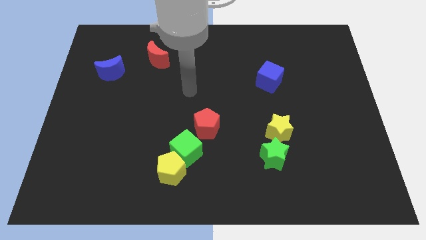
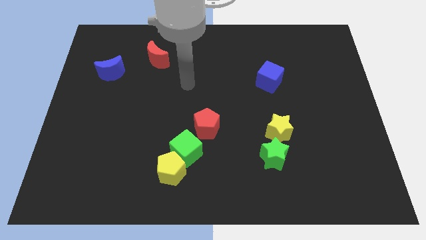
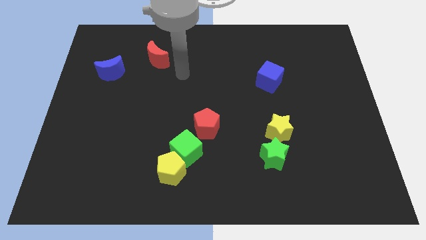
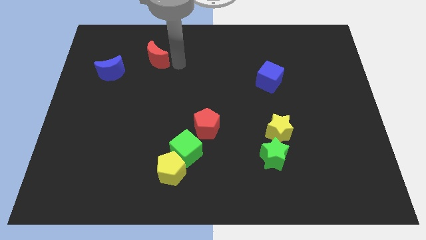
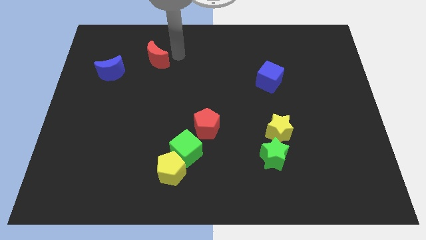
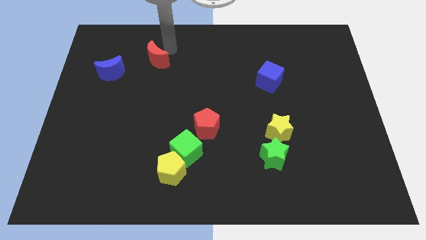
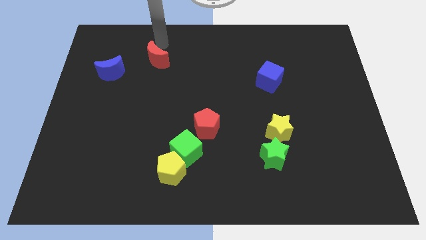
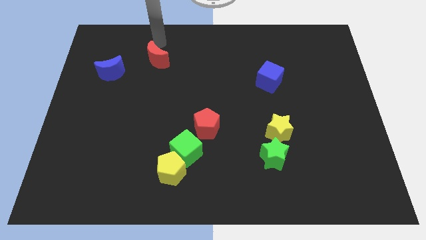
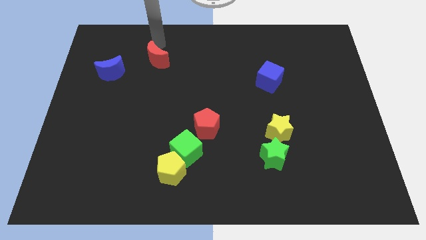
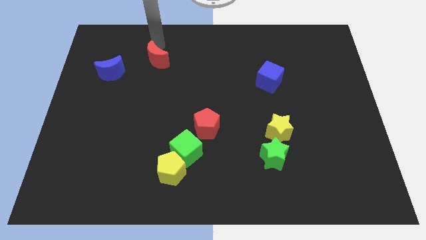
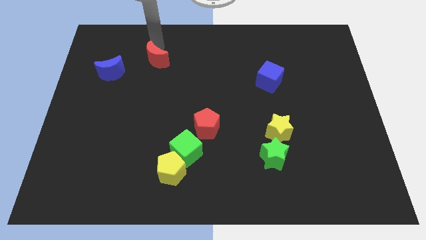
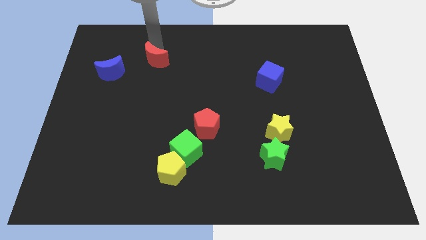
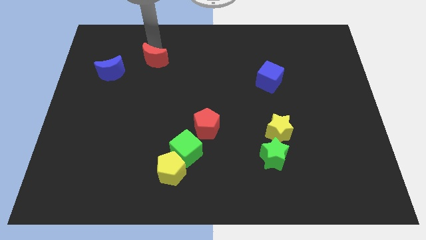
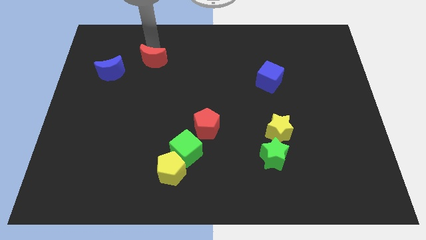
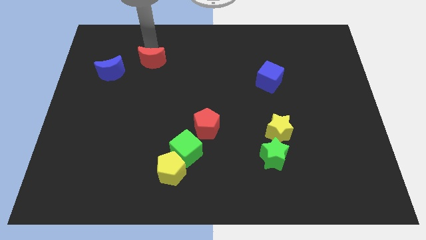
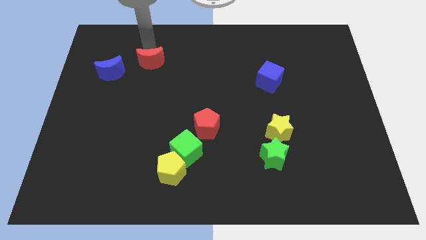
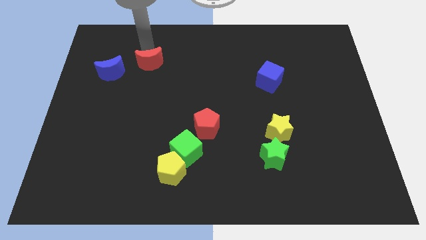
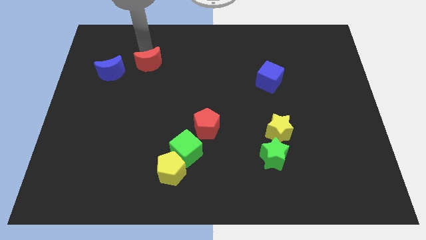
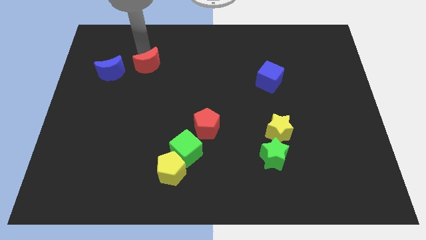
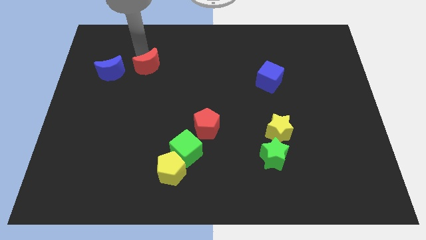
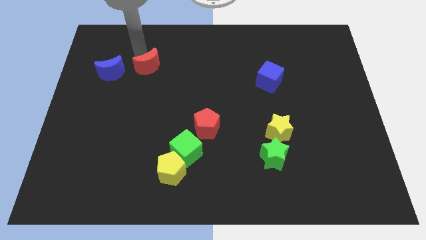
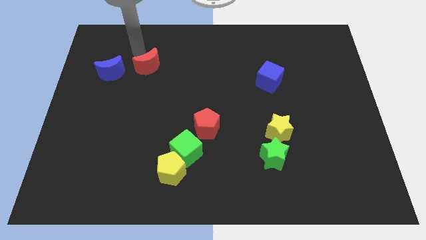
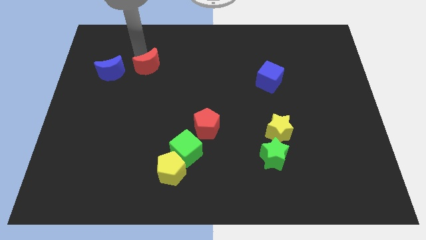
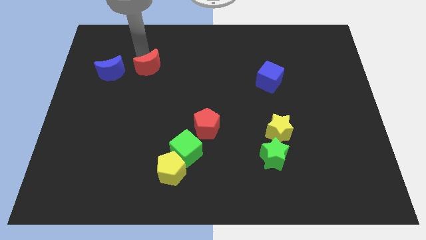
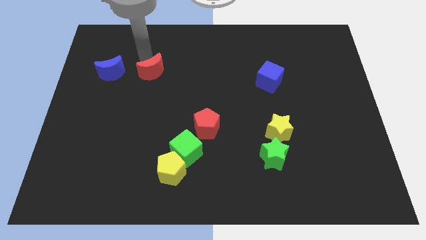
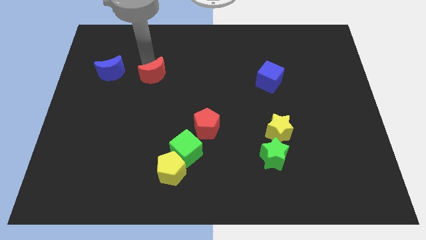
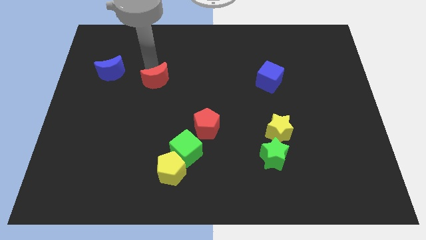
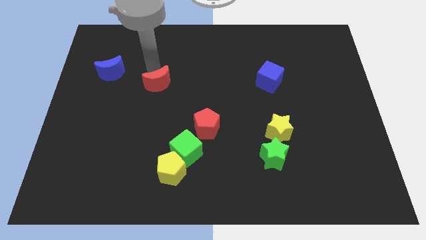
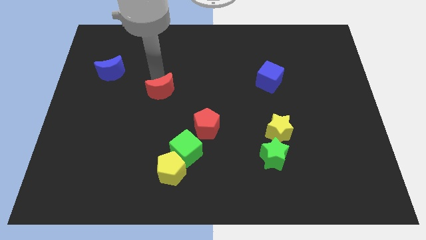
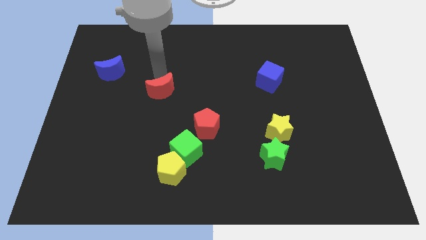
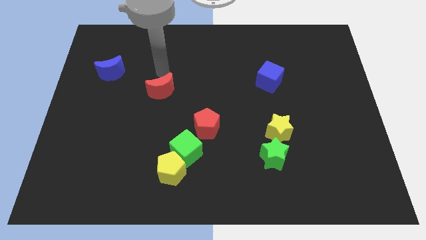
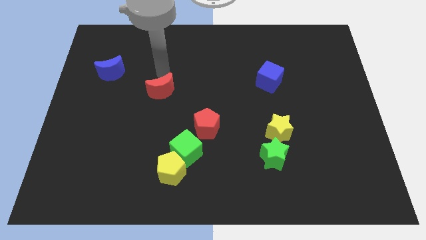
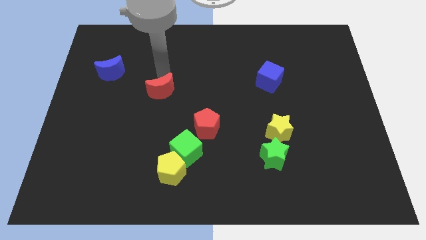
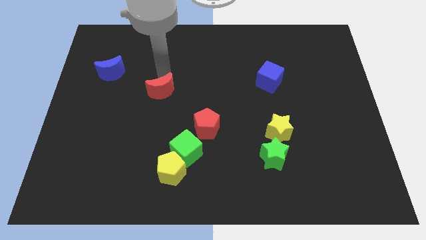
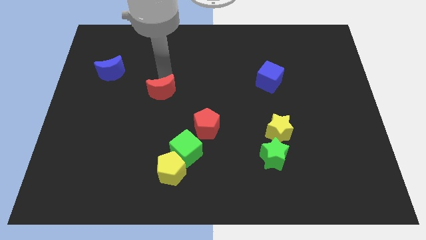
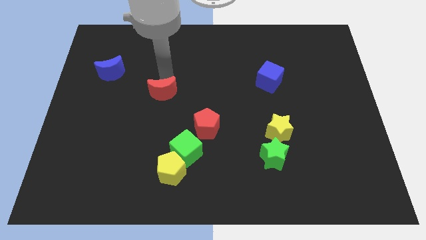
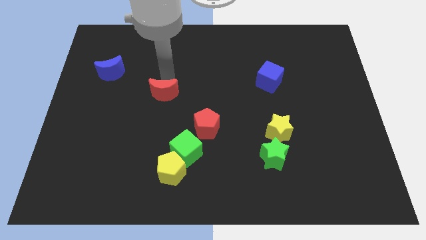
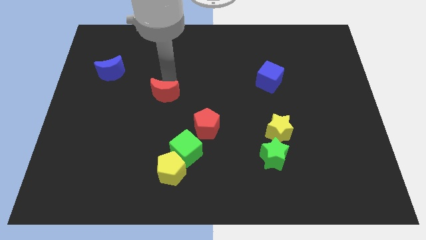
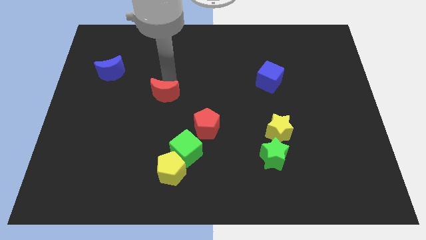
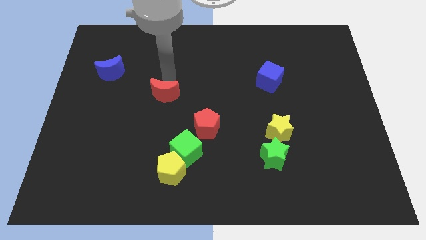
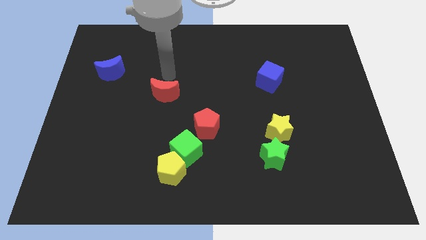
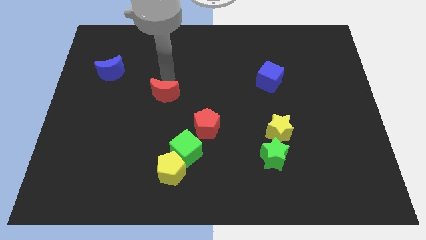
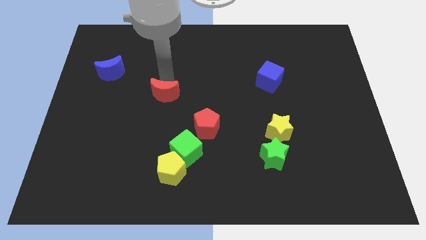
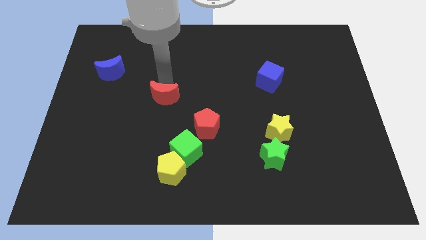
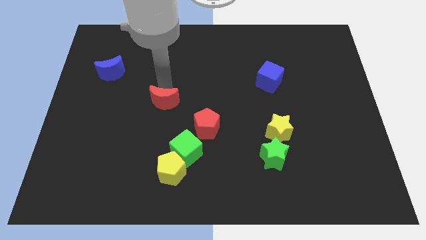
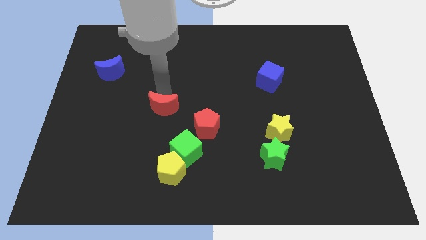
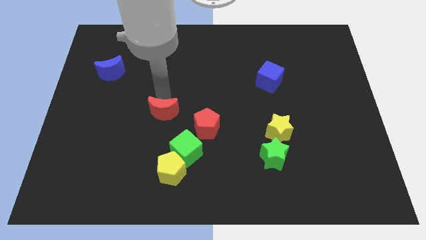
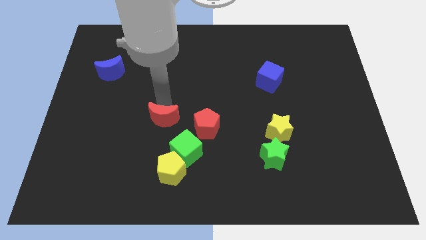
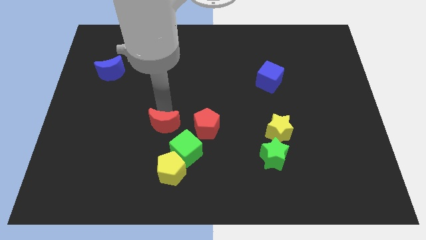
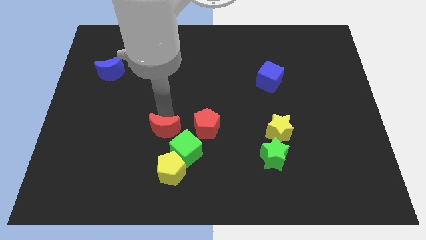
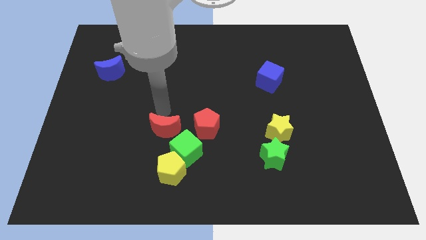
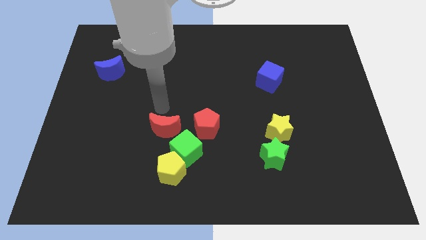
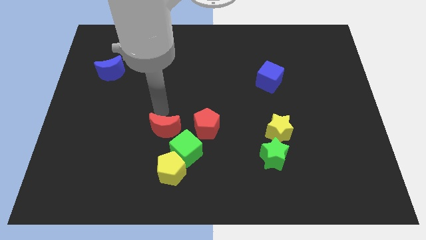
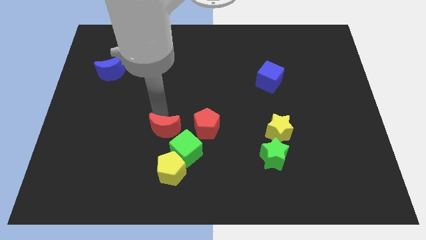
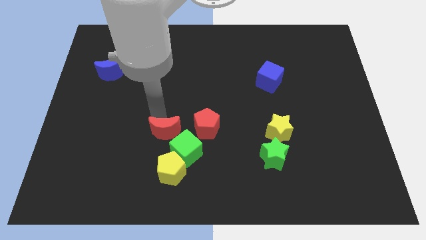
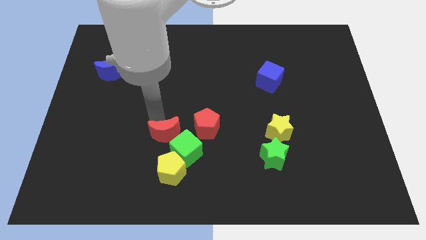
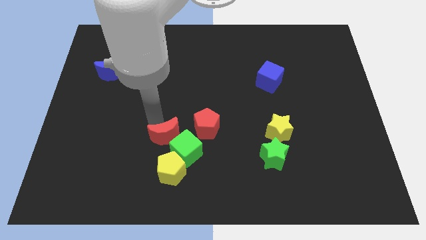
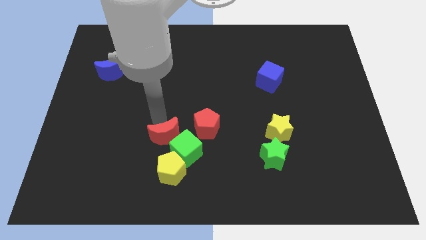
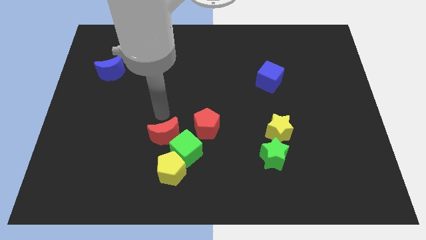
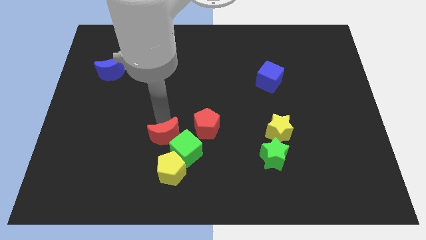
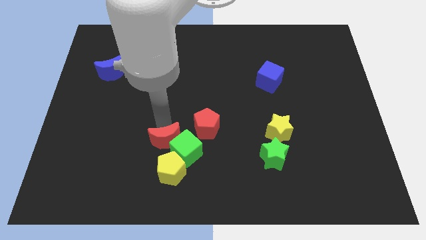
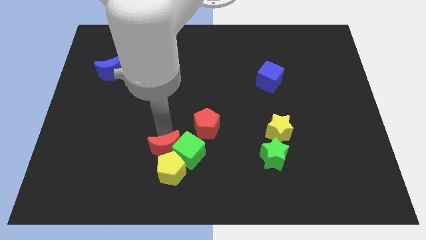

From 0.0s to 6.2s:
push the red moon towards the yellow pentagon

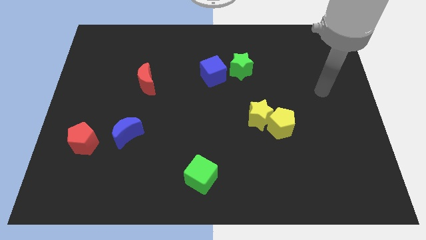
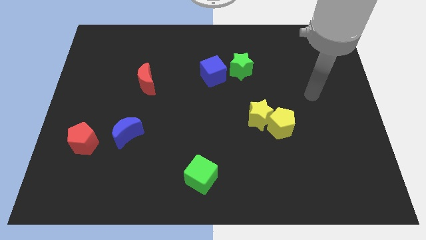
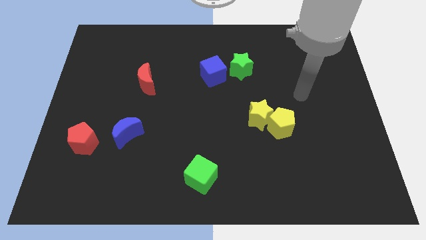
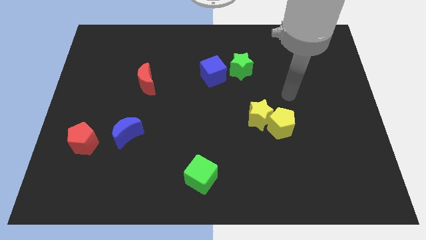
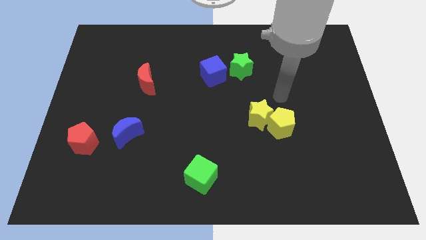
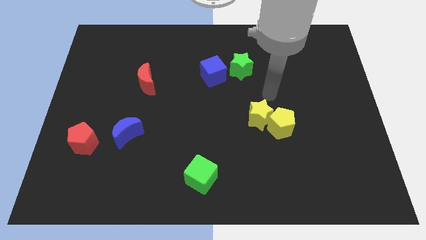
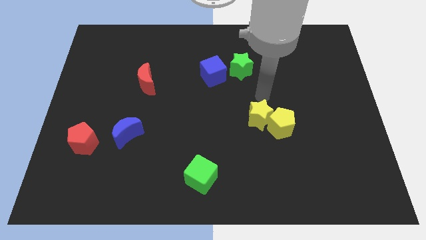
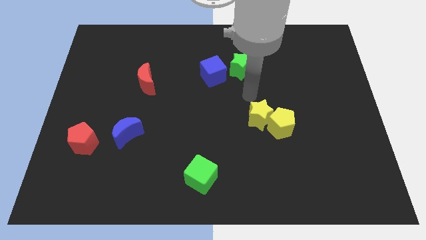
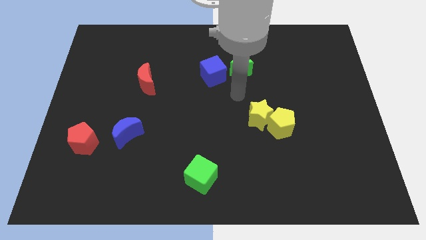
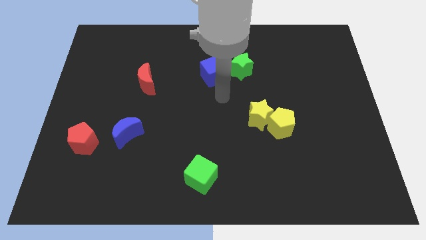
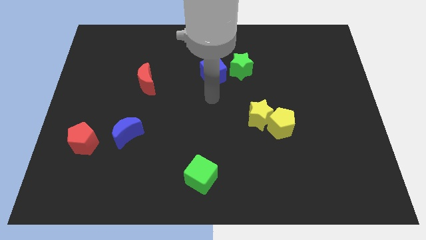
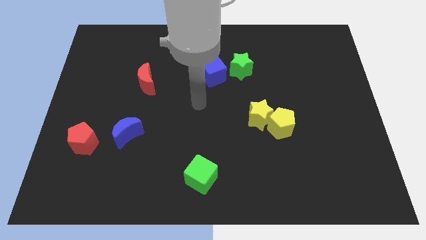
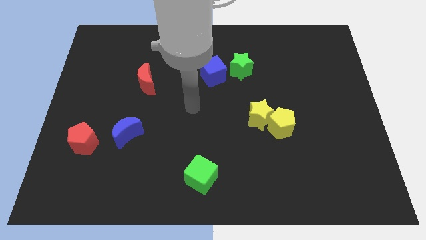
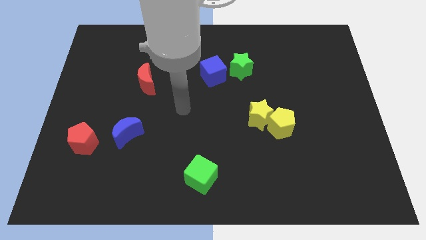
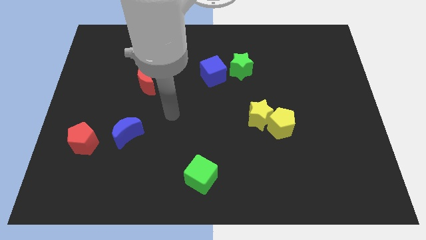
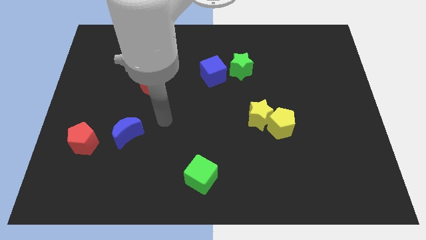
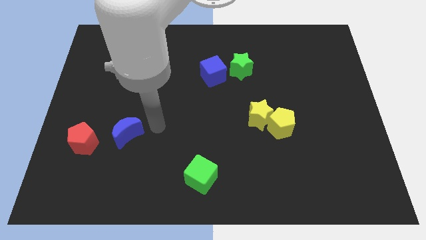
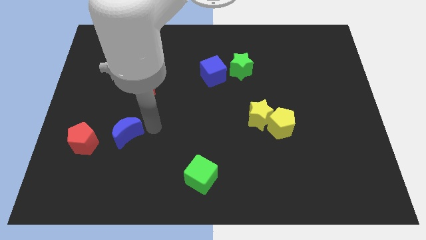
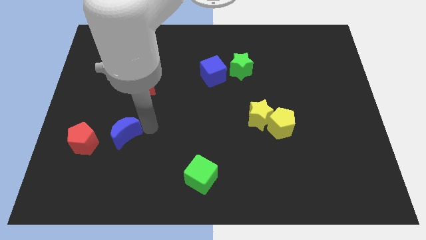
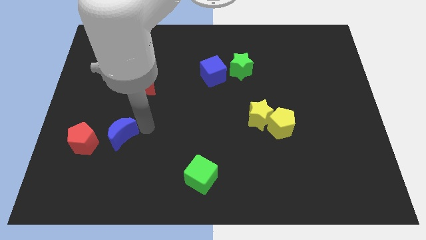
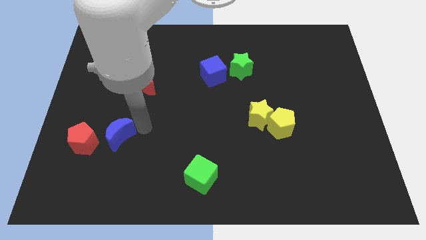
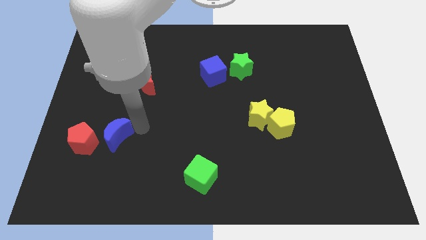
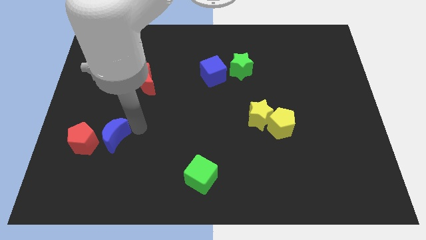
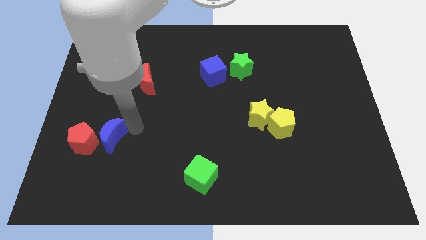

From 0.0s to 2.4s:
slide the blue moon towards the red pentagon
